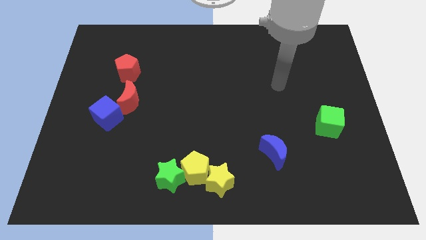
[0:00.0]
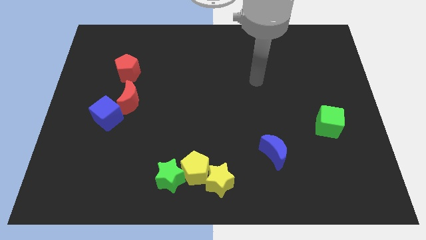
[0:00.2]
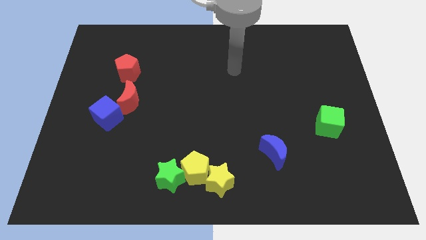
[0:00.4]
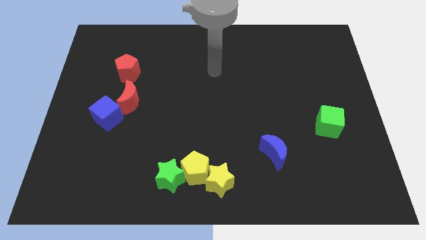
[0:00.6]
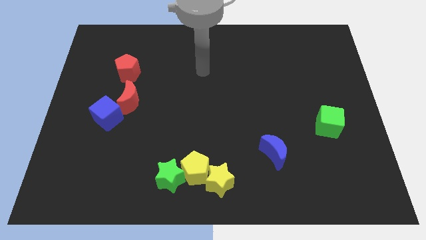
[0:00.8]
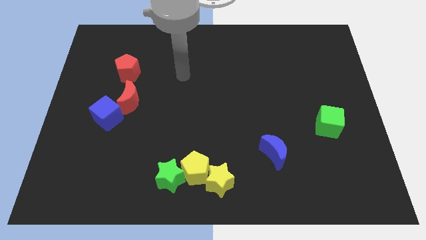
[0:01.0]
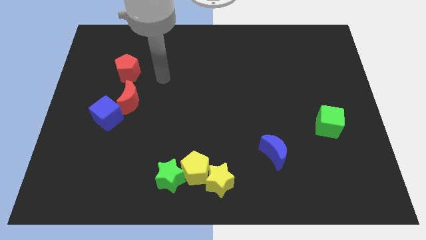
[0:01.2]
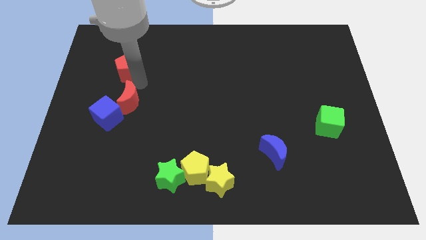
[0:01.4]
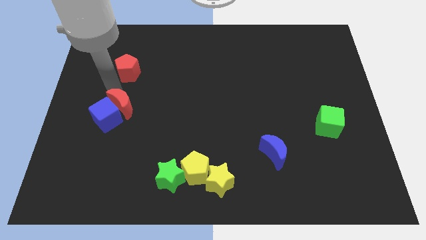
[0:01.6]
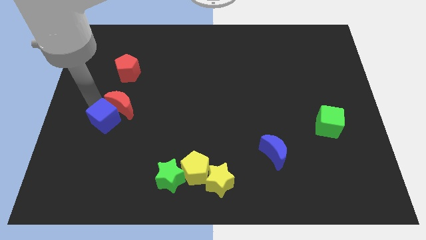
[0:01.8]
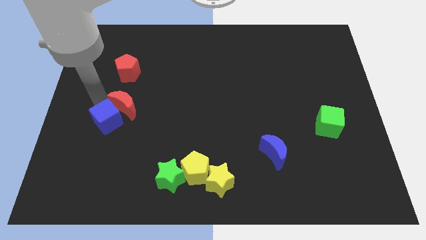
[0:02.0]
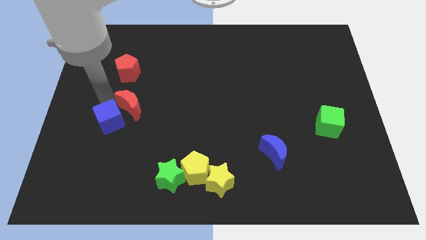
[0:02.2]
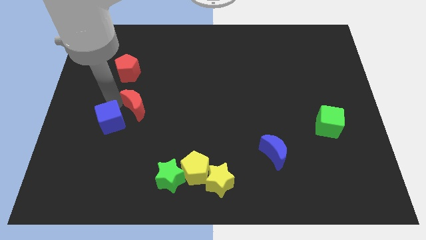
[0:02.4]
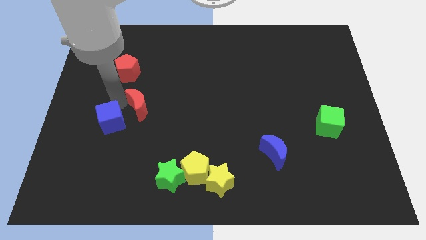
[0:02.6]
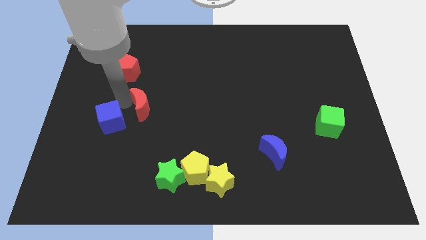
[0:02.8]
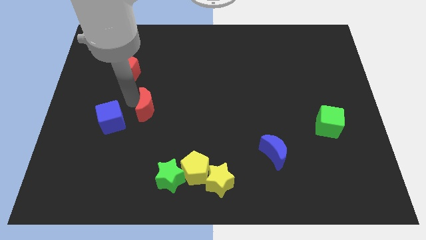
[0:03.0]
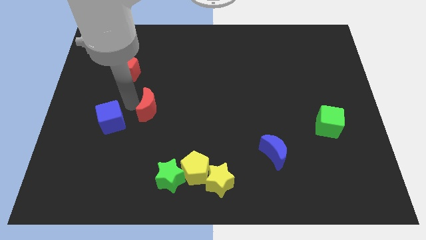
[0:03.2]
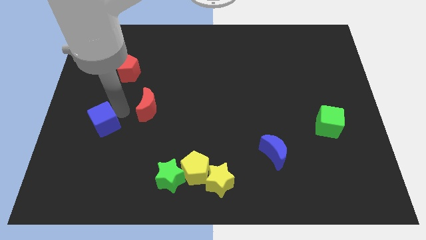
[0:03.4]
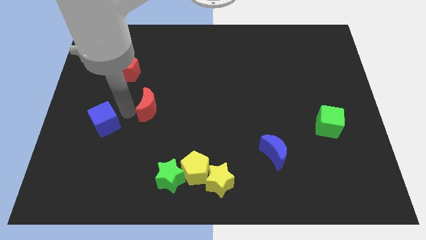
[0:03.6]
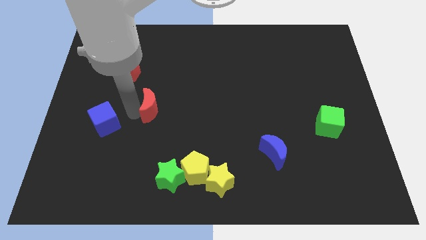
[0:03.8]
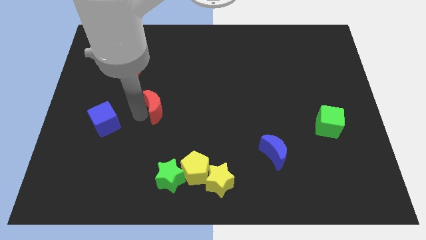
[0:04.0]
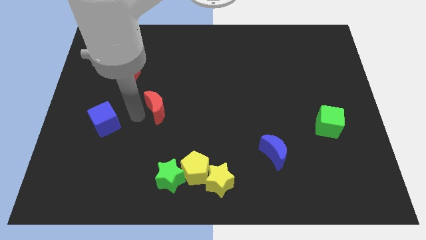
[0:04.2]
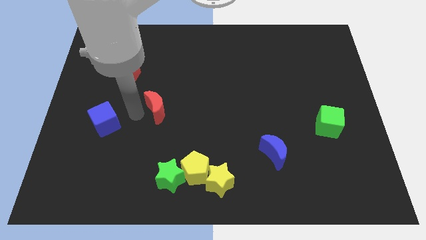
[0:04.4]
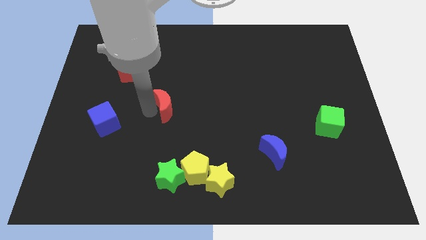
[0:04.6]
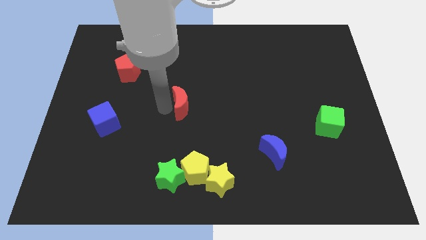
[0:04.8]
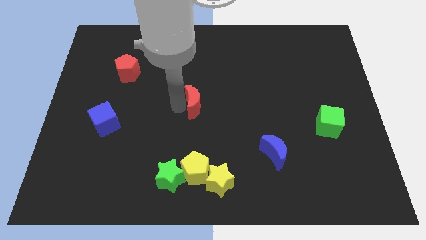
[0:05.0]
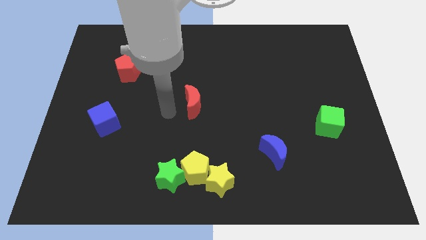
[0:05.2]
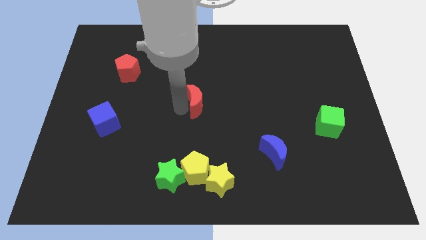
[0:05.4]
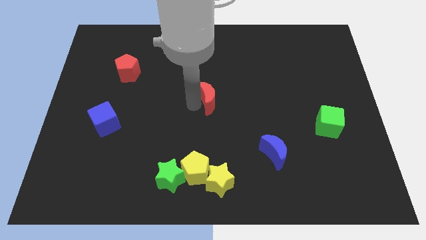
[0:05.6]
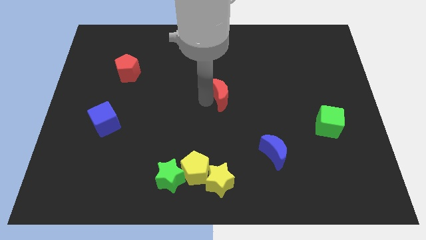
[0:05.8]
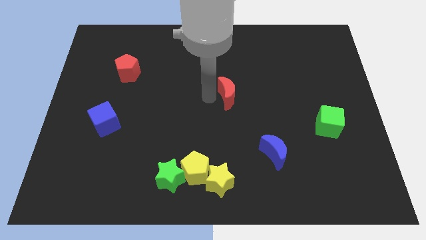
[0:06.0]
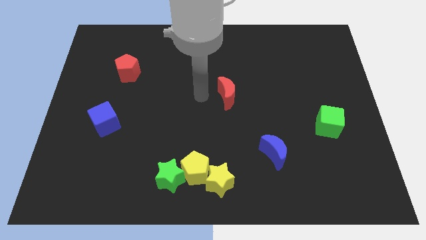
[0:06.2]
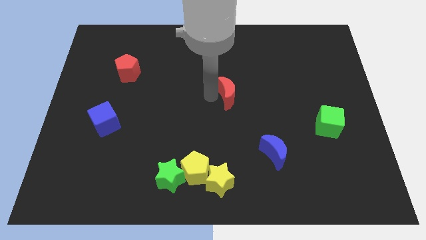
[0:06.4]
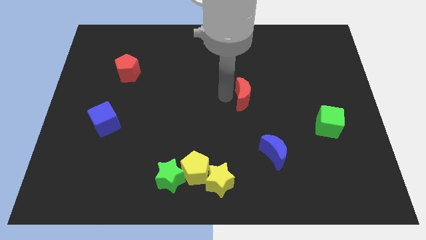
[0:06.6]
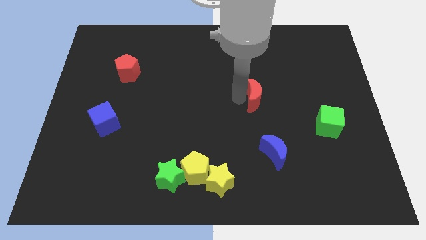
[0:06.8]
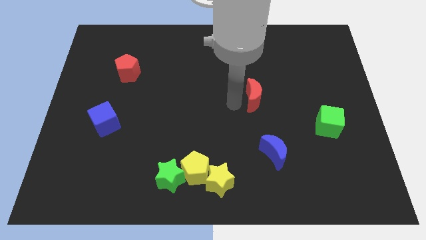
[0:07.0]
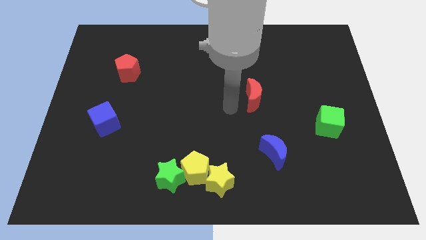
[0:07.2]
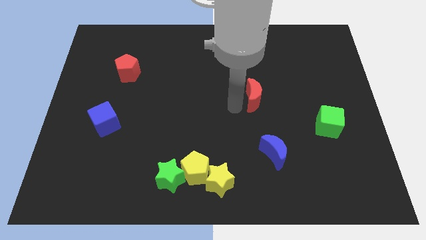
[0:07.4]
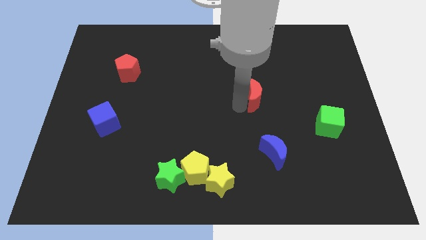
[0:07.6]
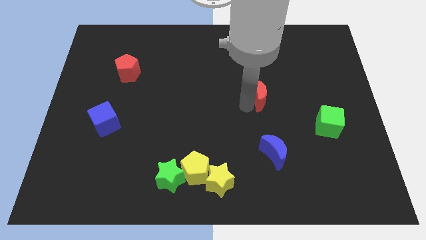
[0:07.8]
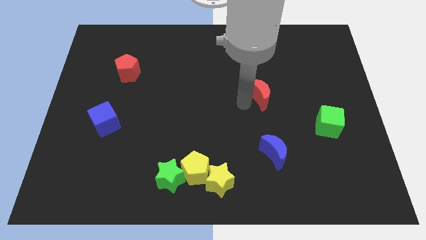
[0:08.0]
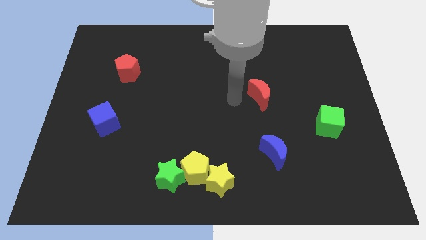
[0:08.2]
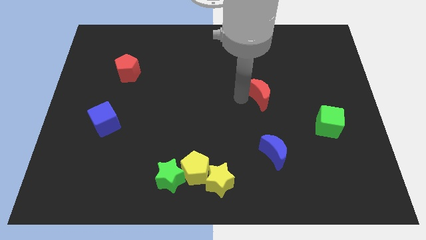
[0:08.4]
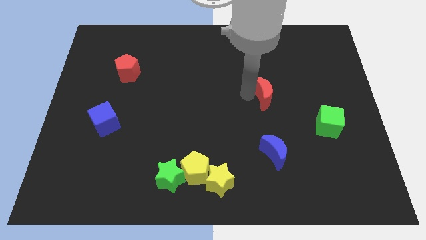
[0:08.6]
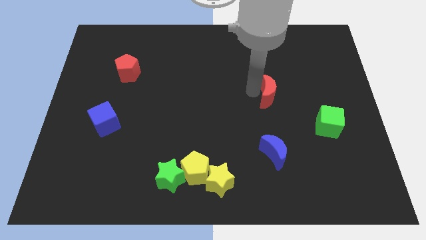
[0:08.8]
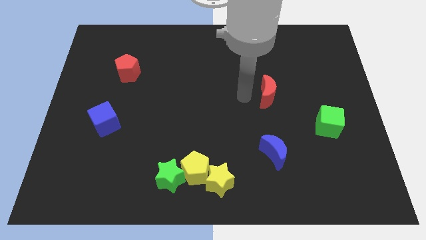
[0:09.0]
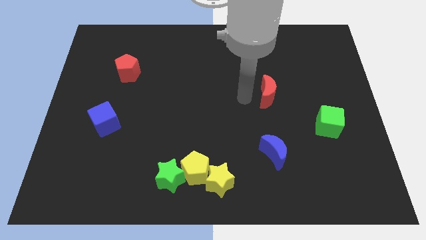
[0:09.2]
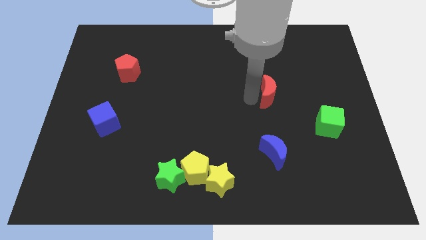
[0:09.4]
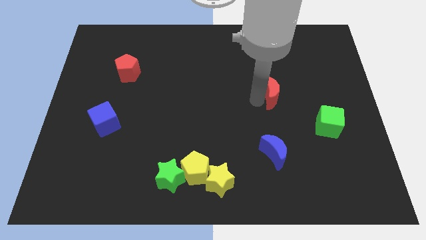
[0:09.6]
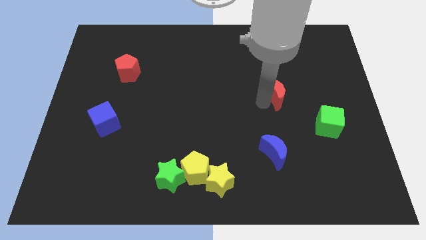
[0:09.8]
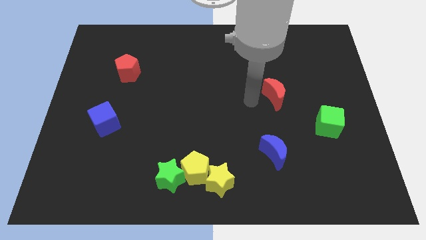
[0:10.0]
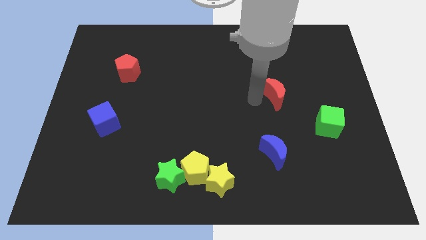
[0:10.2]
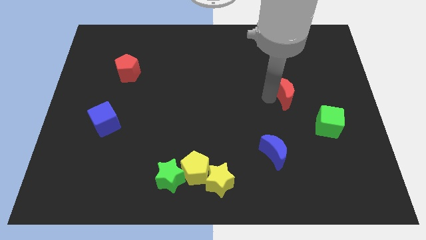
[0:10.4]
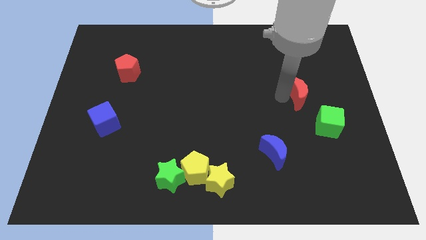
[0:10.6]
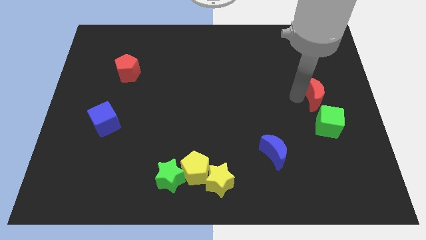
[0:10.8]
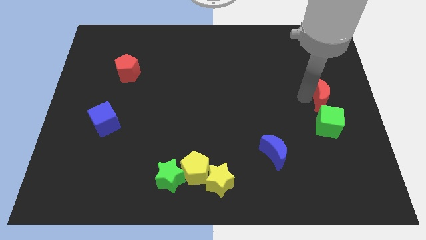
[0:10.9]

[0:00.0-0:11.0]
push the red moon to the center right

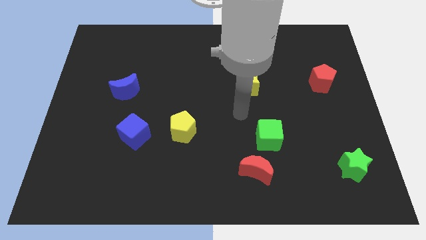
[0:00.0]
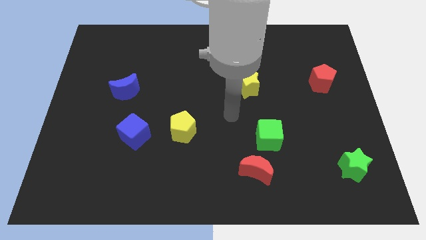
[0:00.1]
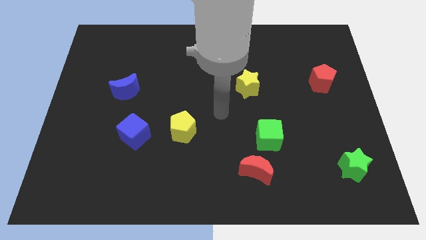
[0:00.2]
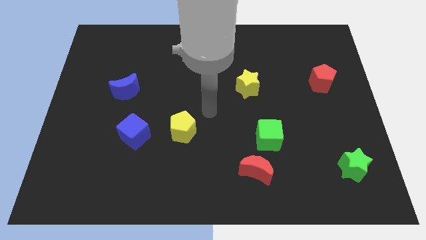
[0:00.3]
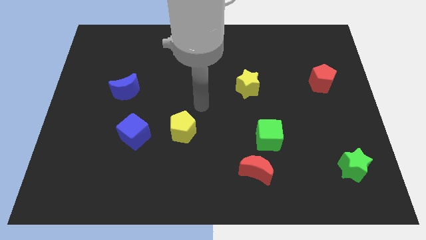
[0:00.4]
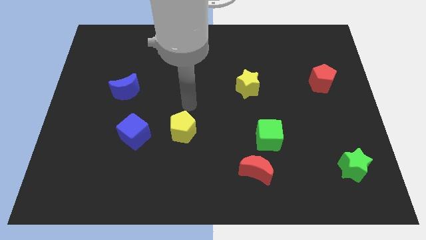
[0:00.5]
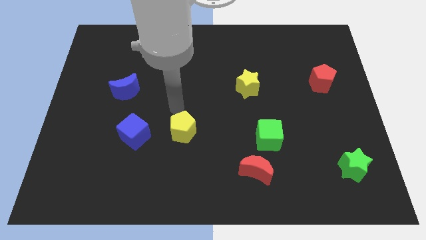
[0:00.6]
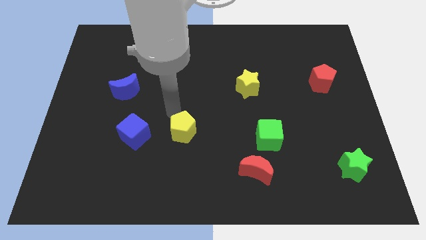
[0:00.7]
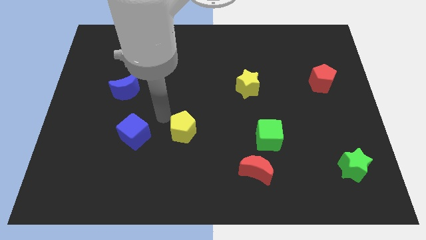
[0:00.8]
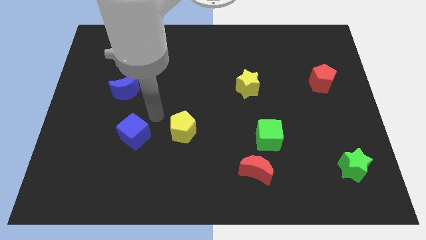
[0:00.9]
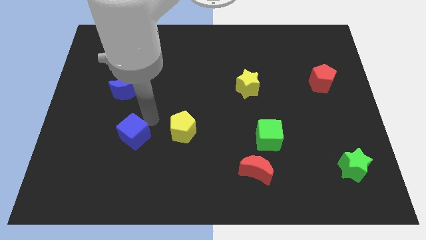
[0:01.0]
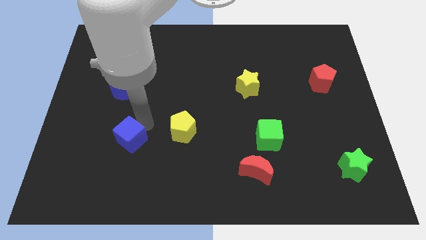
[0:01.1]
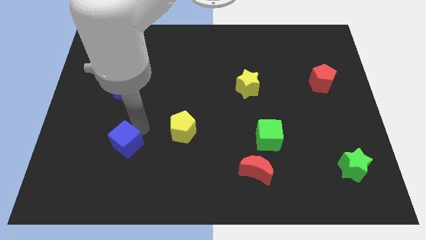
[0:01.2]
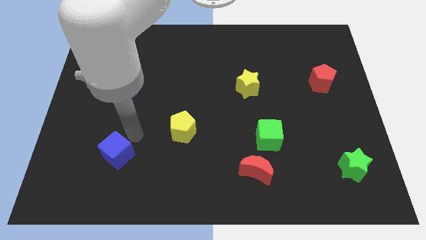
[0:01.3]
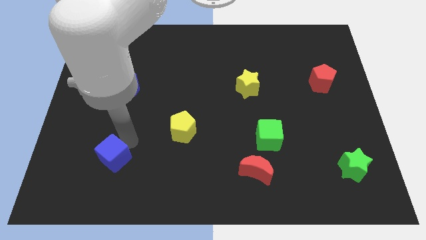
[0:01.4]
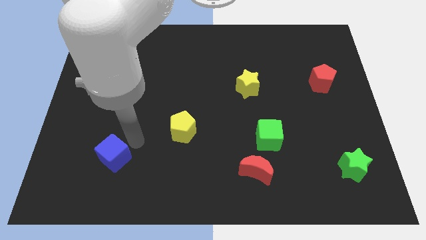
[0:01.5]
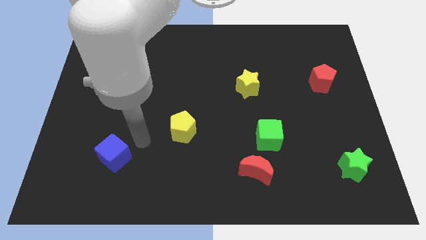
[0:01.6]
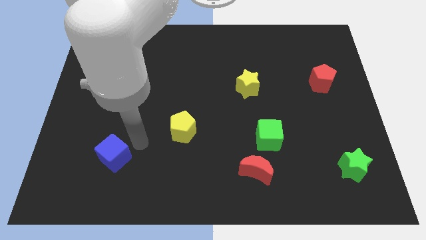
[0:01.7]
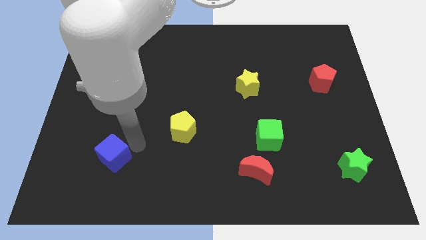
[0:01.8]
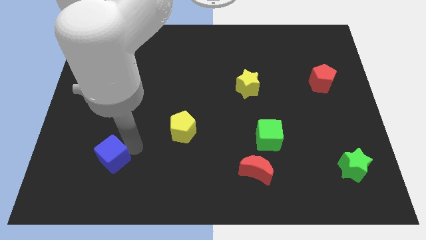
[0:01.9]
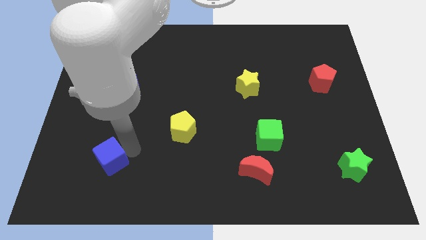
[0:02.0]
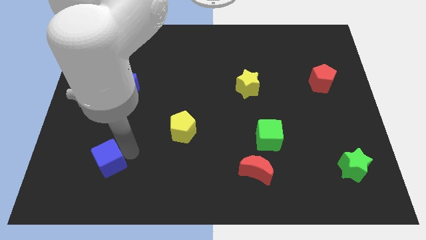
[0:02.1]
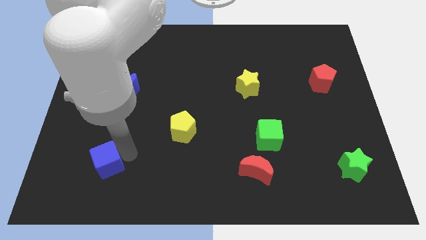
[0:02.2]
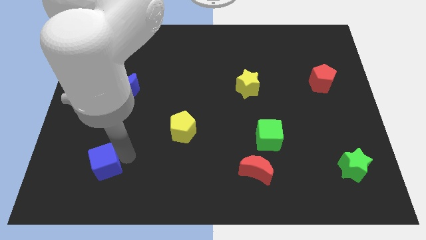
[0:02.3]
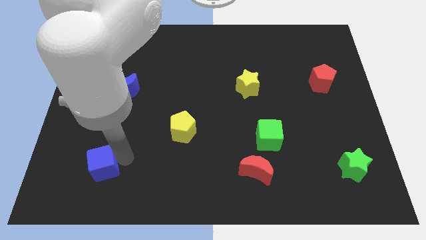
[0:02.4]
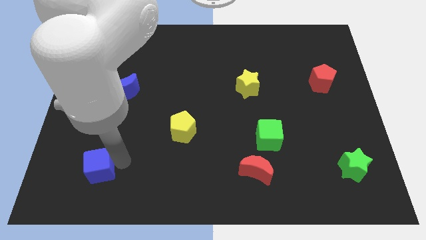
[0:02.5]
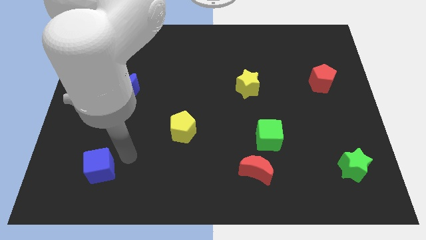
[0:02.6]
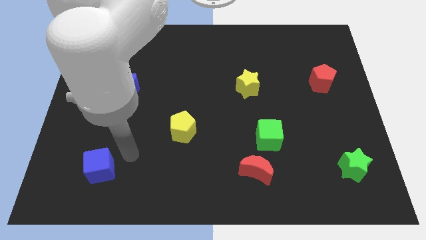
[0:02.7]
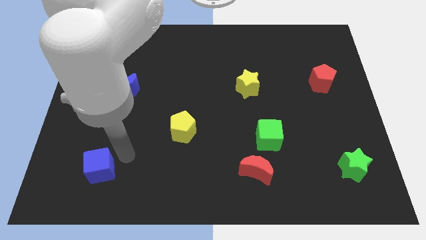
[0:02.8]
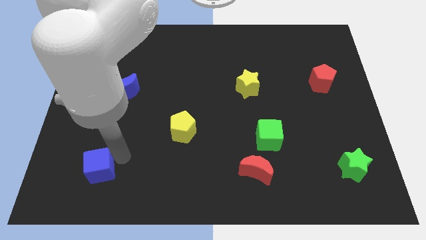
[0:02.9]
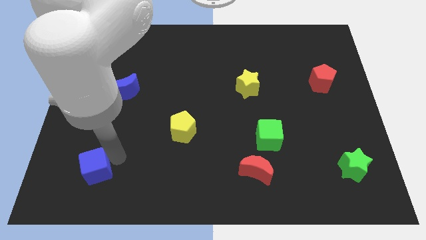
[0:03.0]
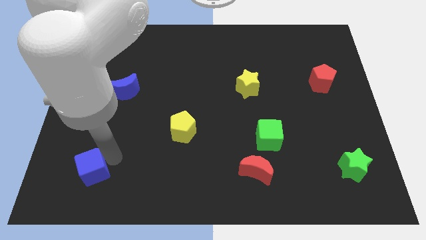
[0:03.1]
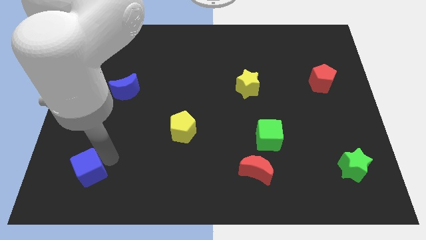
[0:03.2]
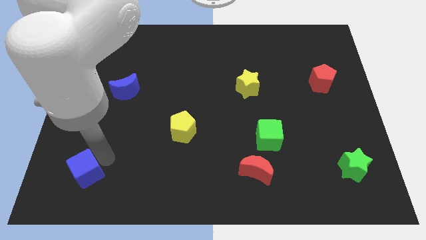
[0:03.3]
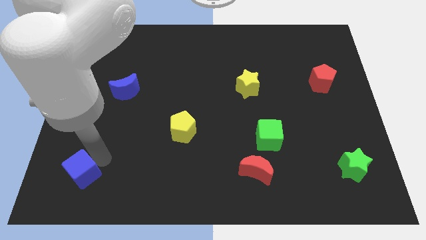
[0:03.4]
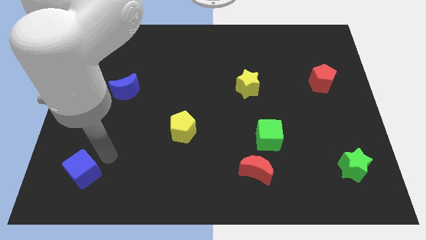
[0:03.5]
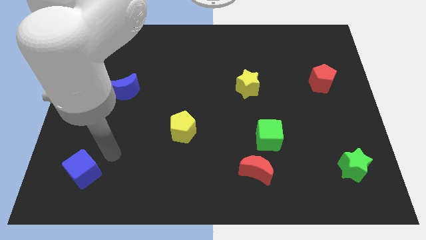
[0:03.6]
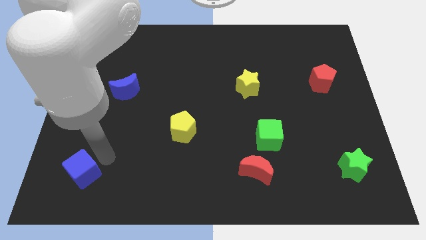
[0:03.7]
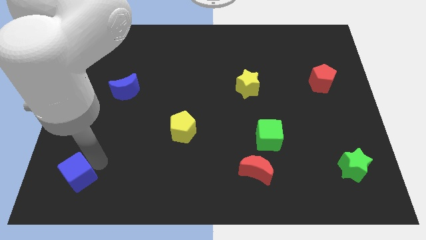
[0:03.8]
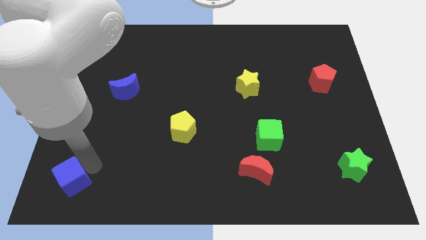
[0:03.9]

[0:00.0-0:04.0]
put the blue cube to the lower left corner
